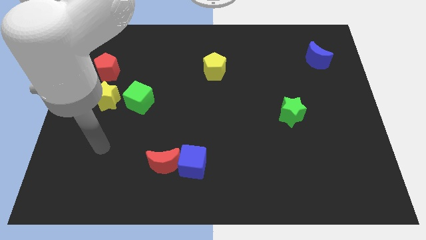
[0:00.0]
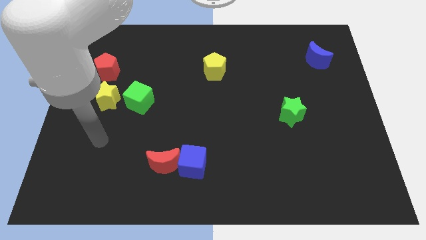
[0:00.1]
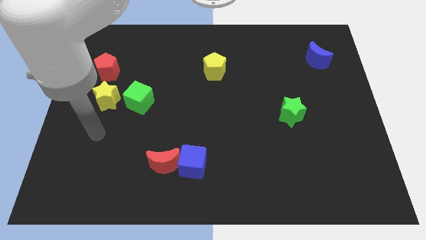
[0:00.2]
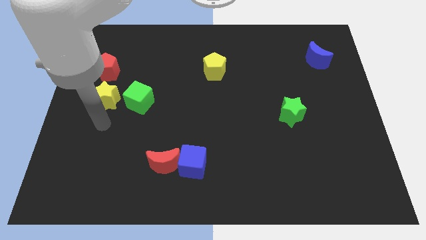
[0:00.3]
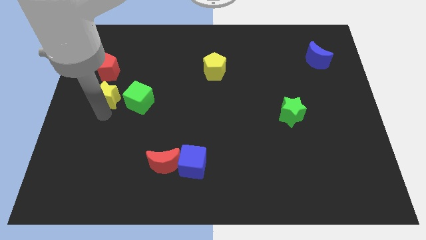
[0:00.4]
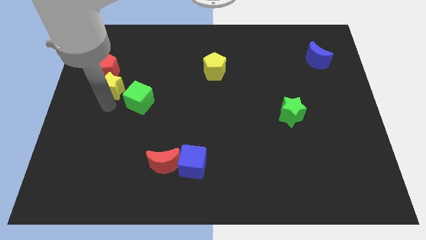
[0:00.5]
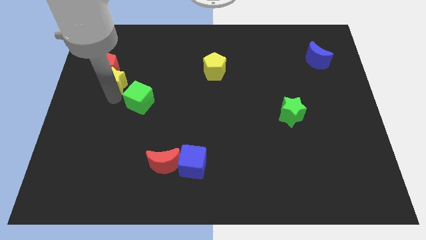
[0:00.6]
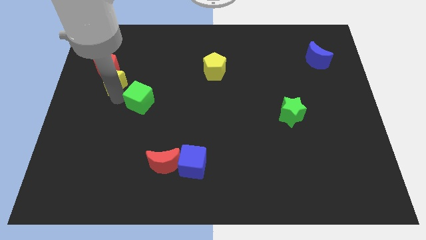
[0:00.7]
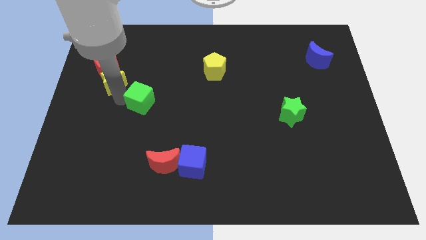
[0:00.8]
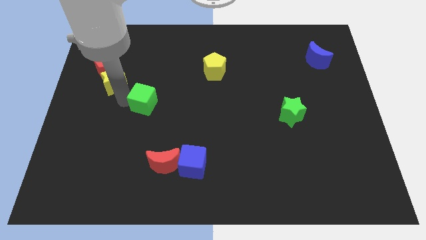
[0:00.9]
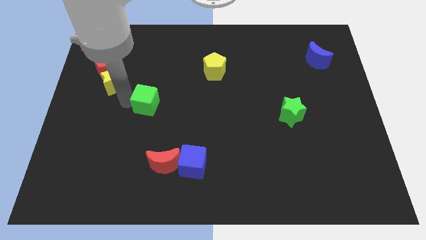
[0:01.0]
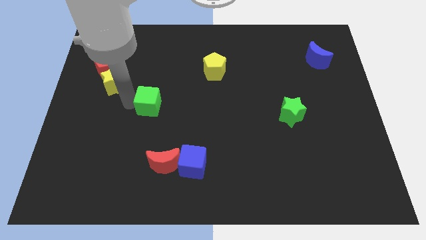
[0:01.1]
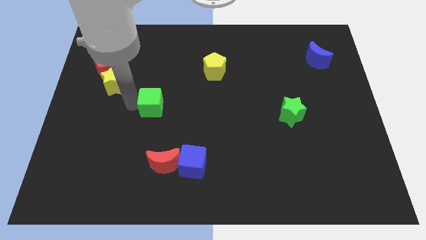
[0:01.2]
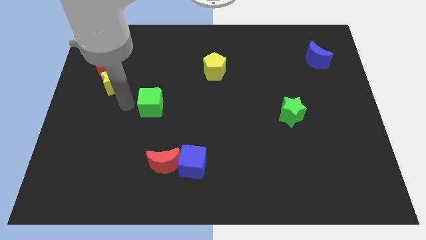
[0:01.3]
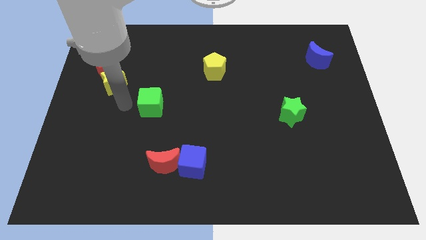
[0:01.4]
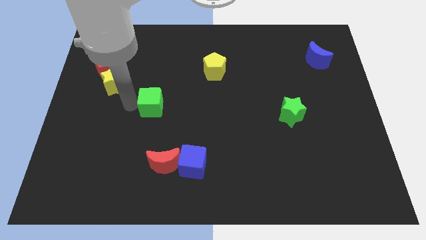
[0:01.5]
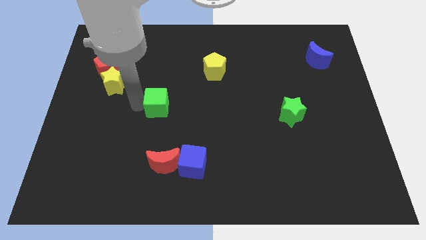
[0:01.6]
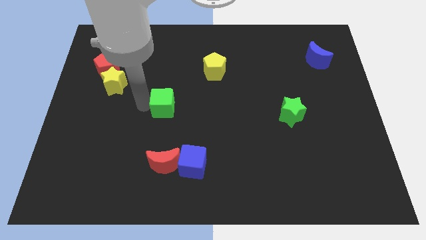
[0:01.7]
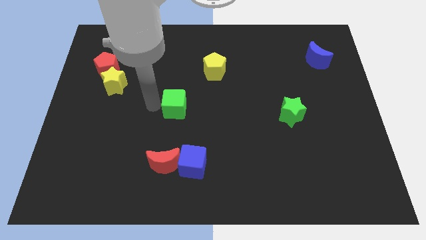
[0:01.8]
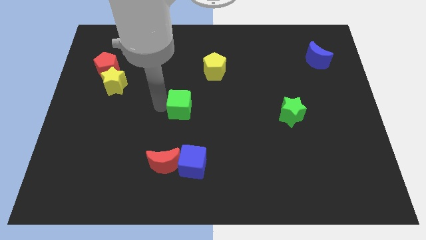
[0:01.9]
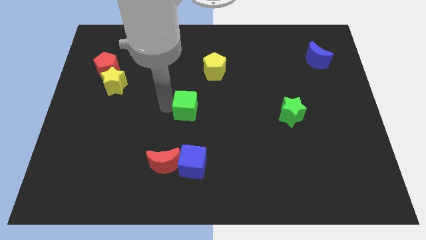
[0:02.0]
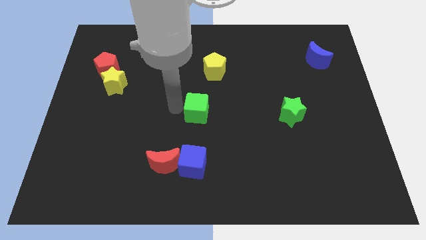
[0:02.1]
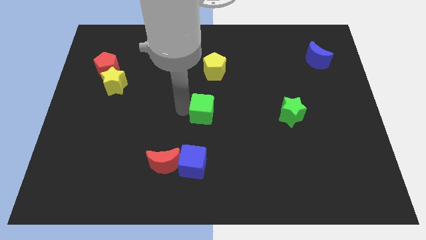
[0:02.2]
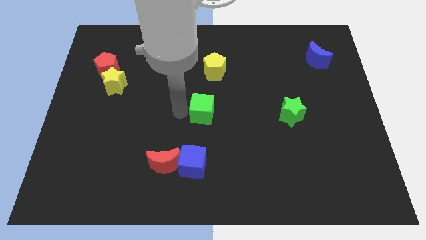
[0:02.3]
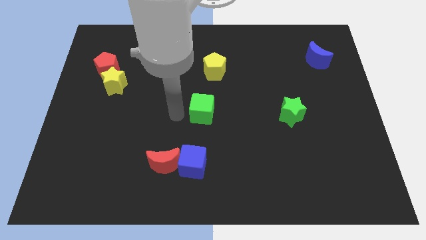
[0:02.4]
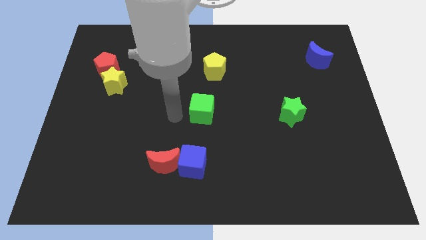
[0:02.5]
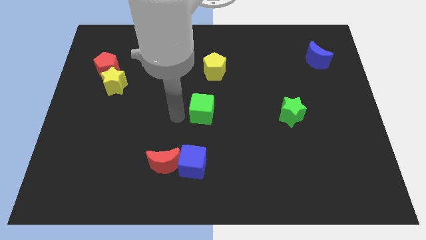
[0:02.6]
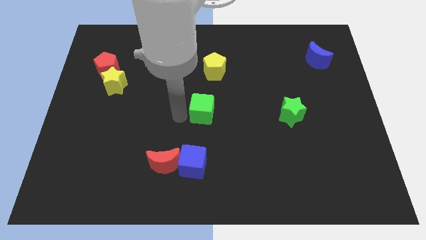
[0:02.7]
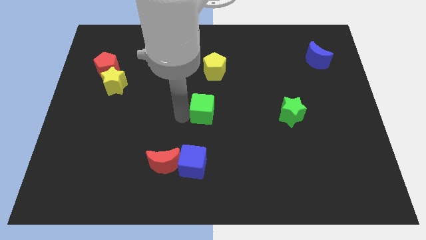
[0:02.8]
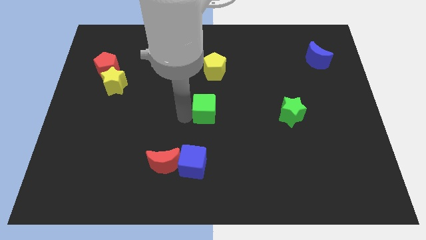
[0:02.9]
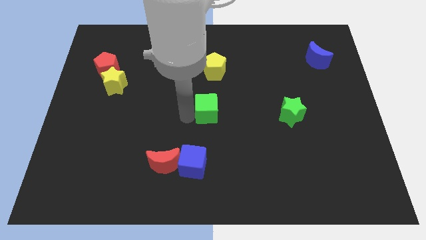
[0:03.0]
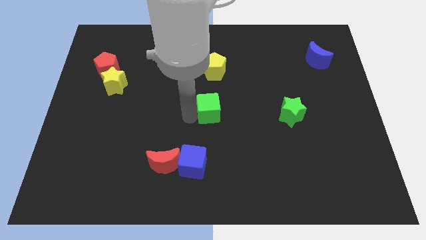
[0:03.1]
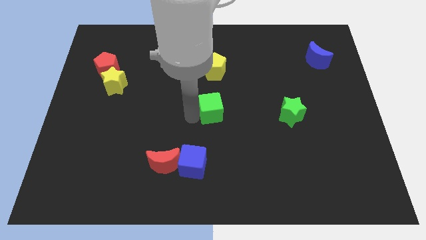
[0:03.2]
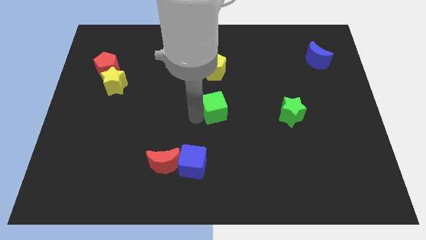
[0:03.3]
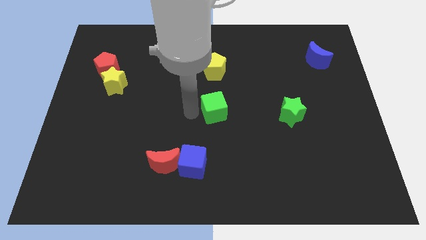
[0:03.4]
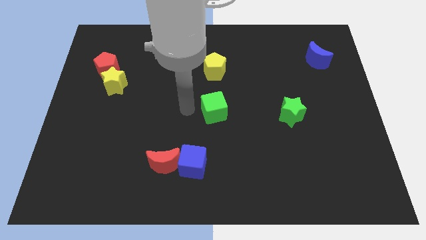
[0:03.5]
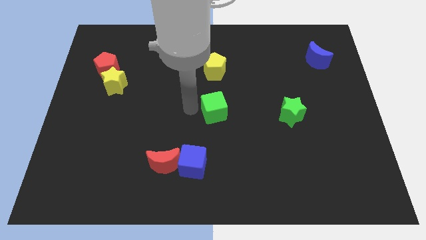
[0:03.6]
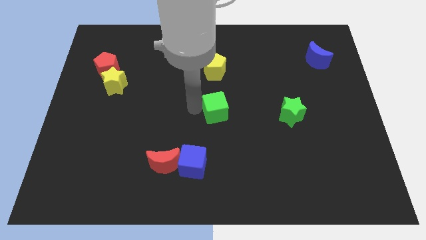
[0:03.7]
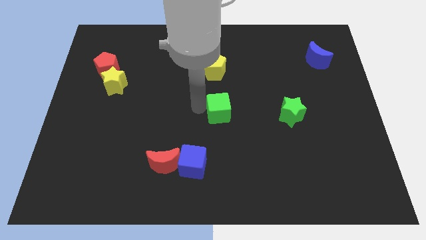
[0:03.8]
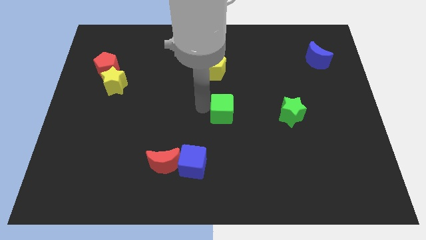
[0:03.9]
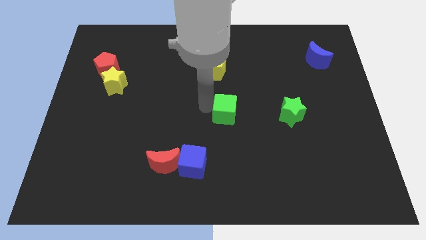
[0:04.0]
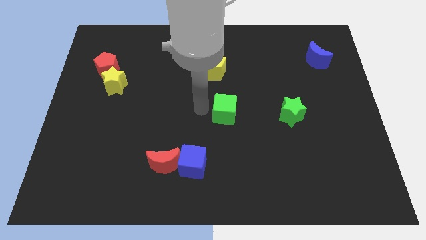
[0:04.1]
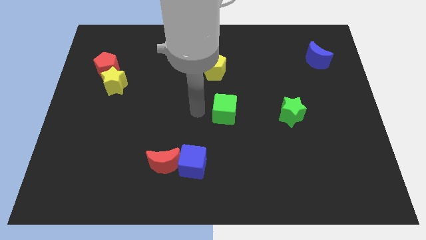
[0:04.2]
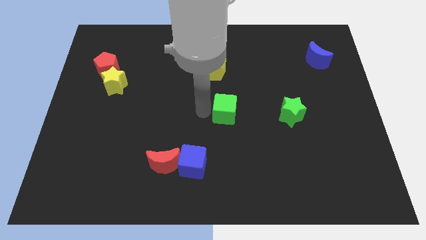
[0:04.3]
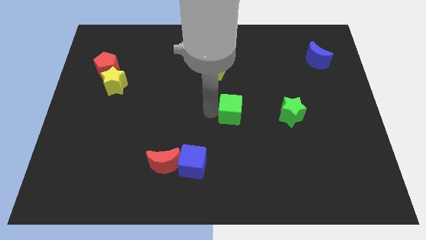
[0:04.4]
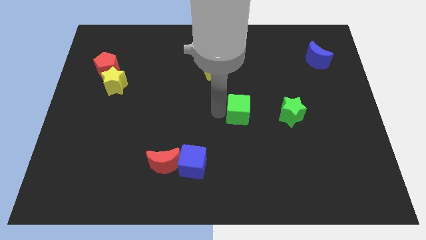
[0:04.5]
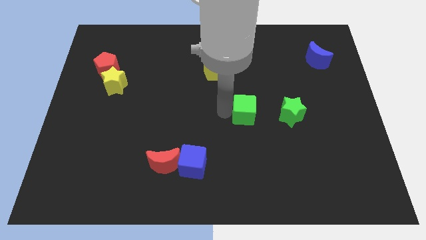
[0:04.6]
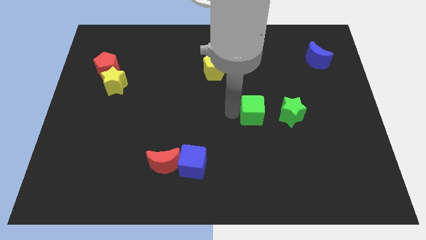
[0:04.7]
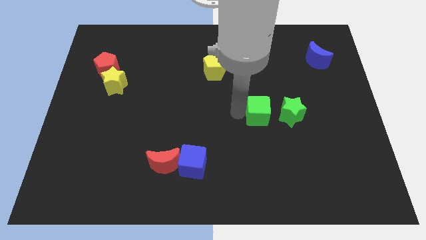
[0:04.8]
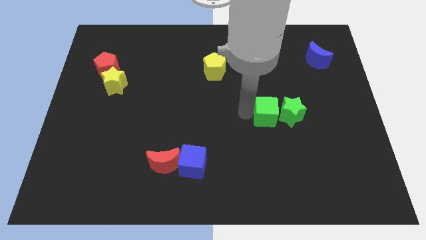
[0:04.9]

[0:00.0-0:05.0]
slide the green cube to the green star

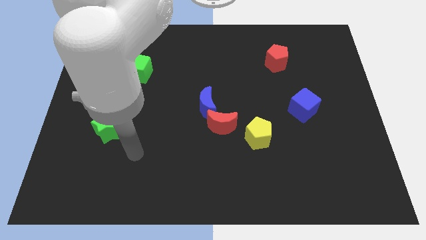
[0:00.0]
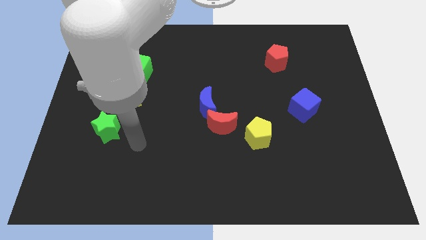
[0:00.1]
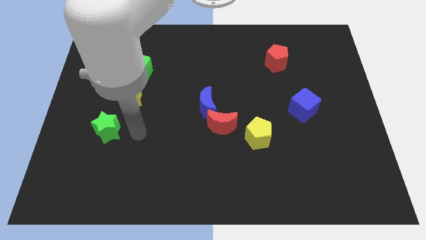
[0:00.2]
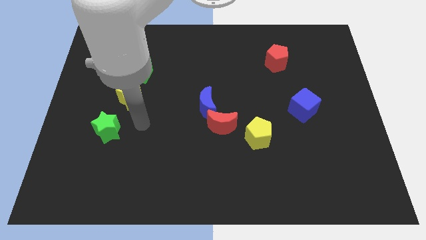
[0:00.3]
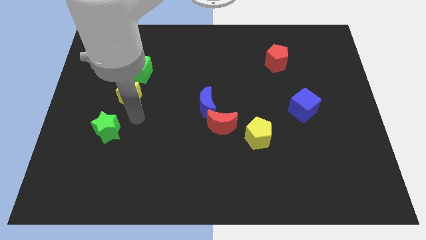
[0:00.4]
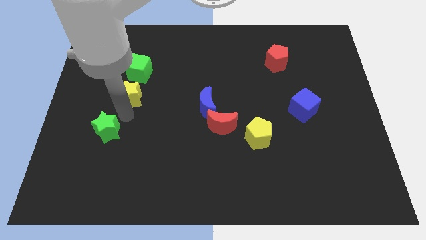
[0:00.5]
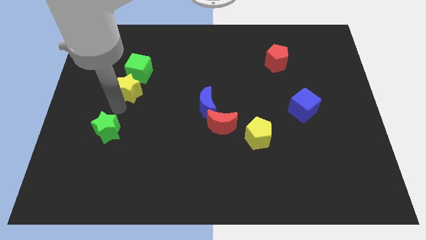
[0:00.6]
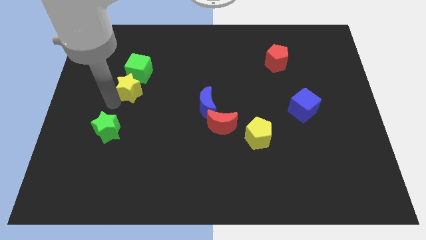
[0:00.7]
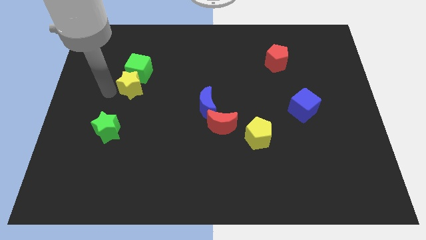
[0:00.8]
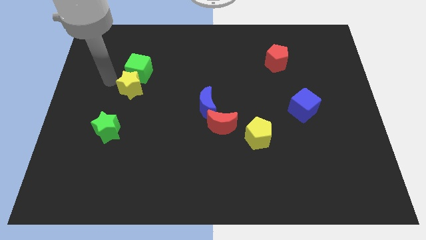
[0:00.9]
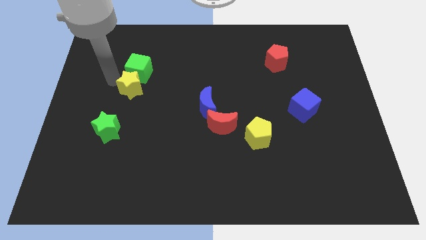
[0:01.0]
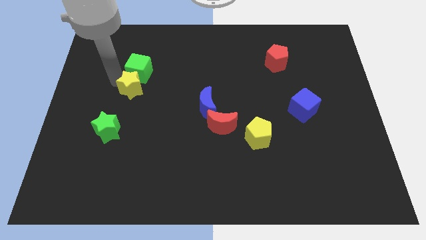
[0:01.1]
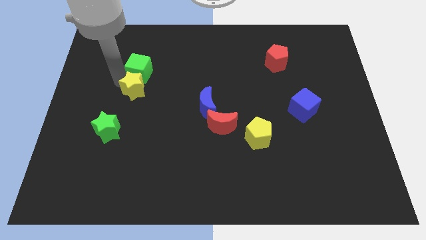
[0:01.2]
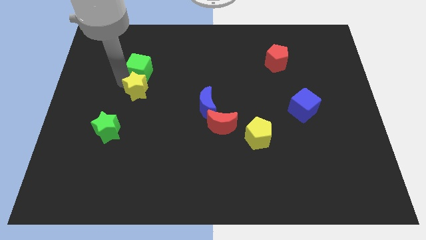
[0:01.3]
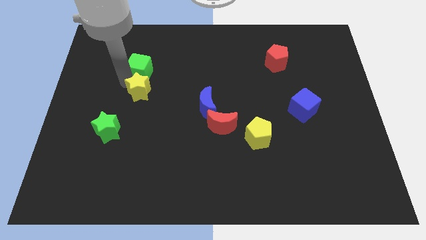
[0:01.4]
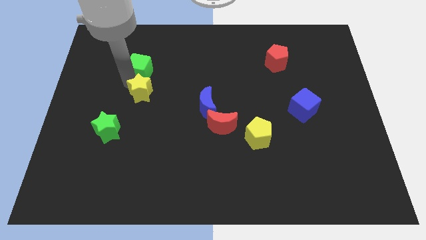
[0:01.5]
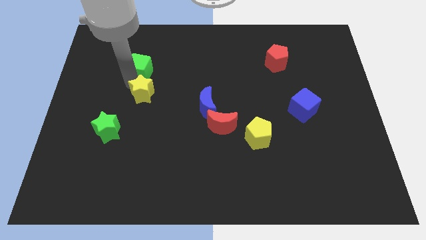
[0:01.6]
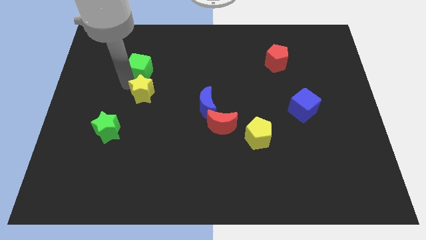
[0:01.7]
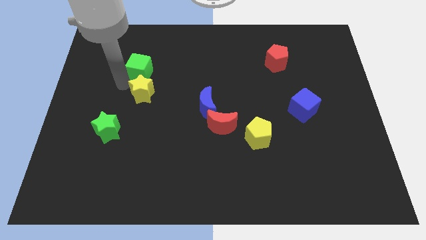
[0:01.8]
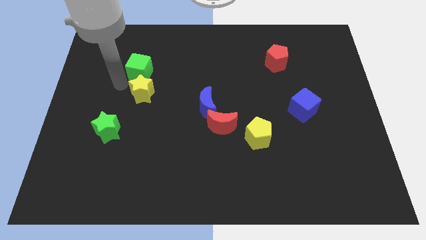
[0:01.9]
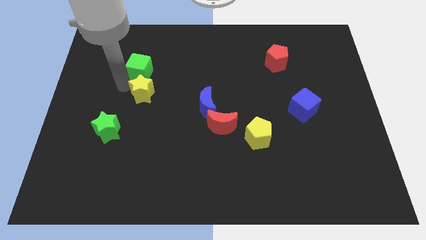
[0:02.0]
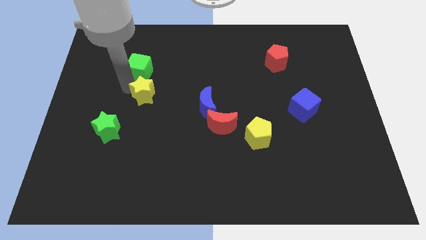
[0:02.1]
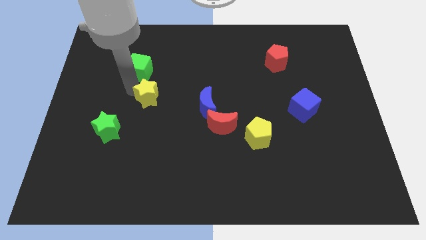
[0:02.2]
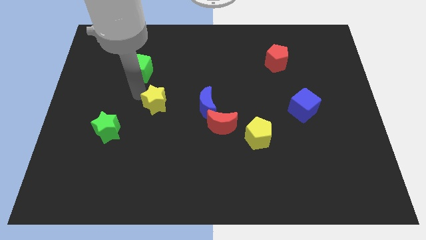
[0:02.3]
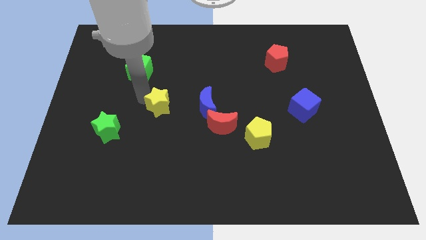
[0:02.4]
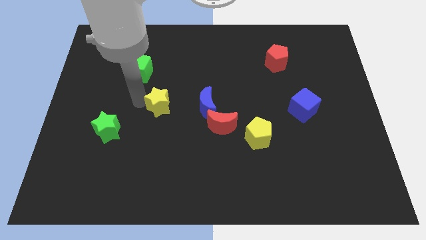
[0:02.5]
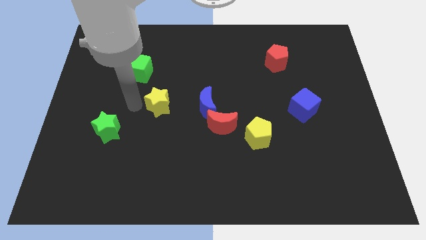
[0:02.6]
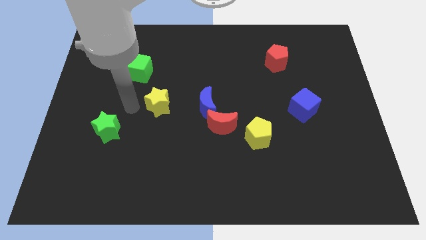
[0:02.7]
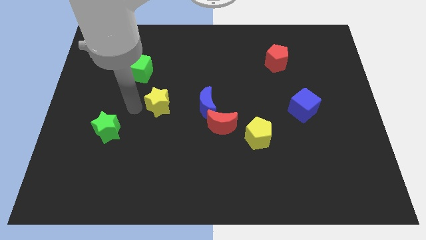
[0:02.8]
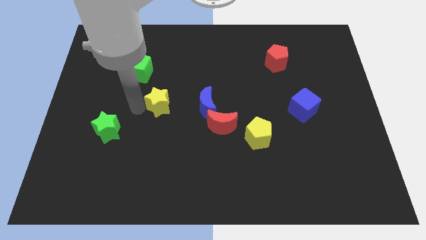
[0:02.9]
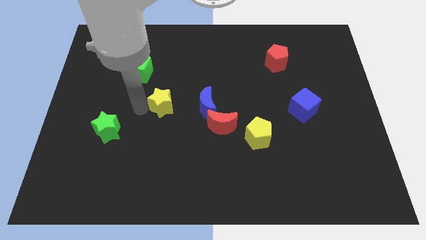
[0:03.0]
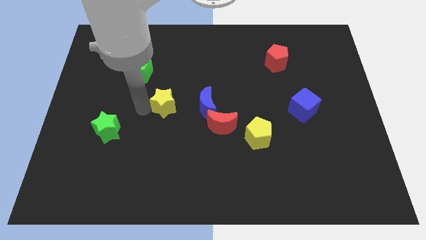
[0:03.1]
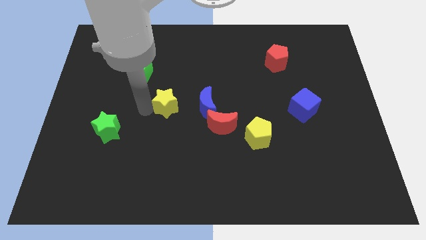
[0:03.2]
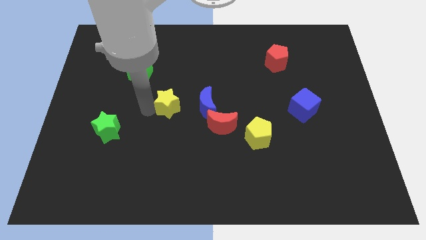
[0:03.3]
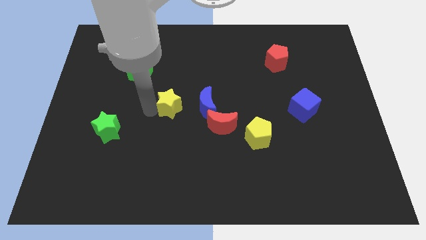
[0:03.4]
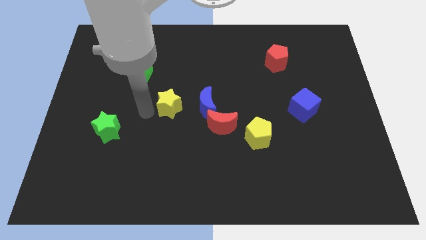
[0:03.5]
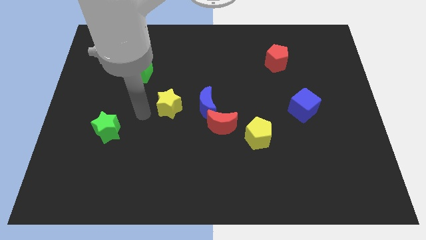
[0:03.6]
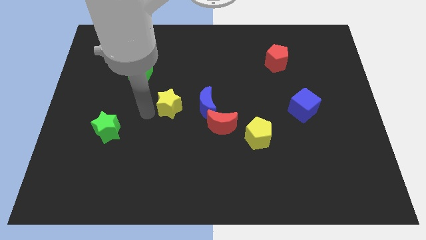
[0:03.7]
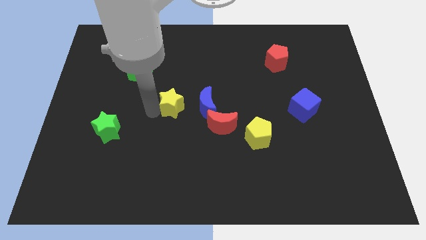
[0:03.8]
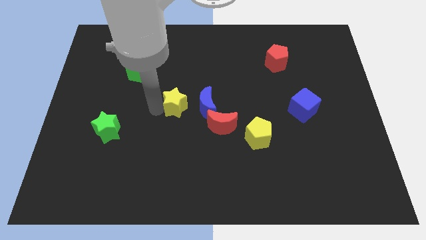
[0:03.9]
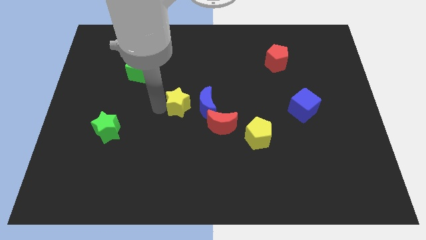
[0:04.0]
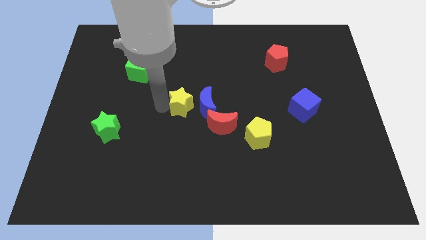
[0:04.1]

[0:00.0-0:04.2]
put the yellow star next to the blue moon
